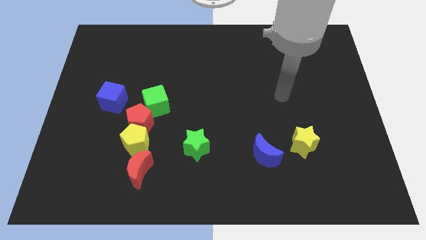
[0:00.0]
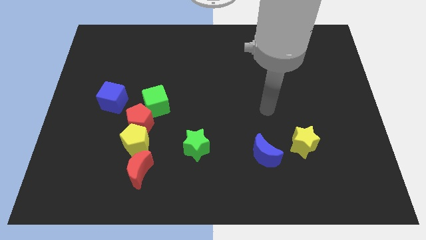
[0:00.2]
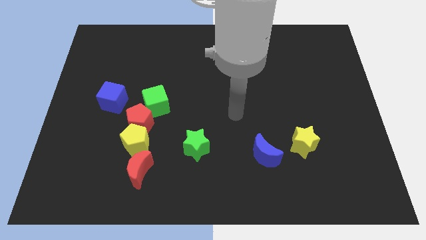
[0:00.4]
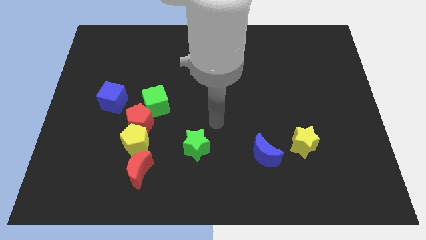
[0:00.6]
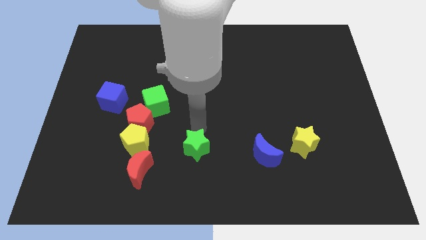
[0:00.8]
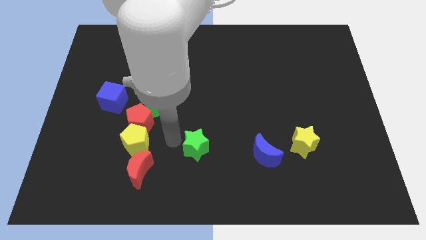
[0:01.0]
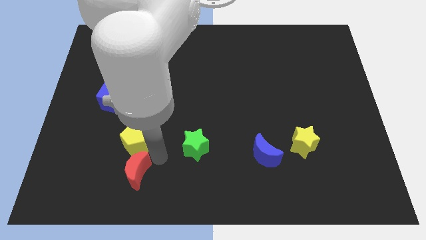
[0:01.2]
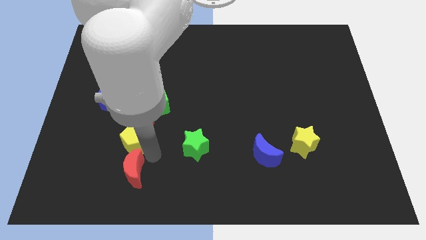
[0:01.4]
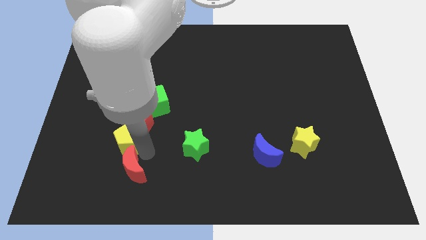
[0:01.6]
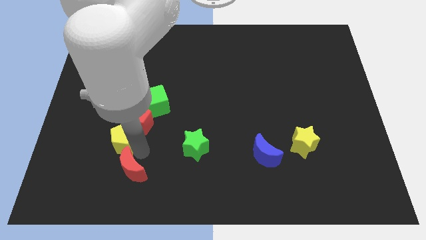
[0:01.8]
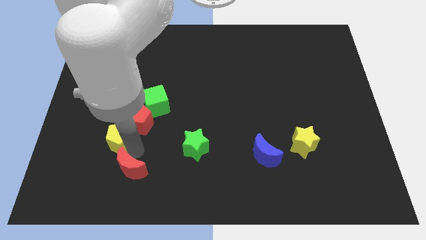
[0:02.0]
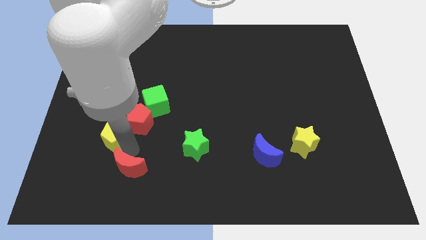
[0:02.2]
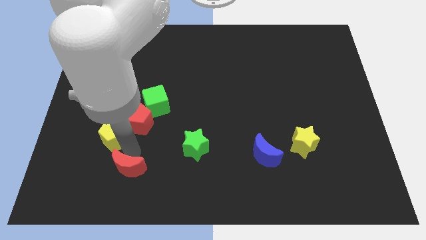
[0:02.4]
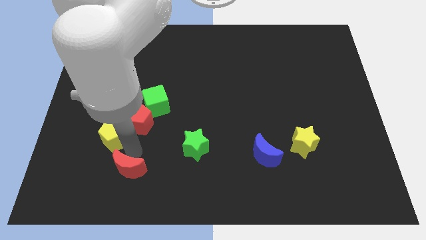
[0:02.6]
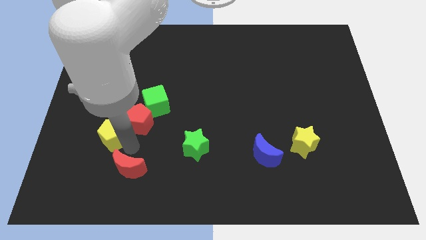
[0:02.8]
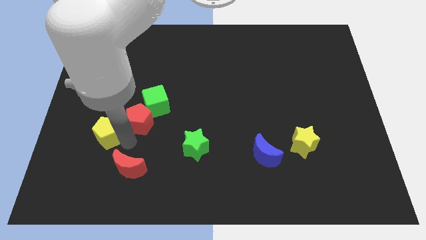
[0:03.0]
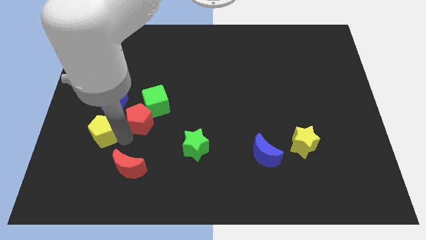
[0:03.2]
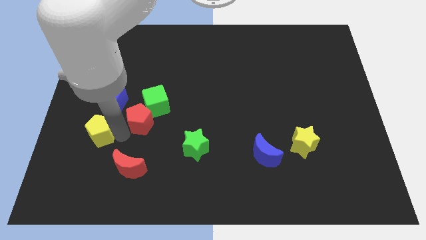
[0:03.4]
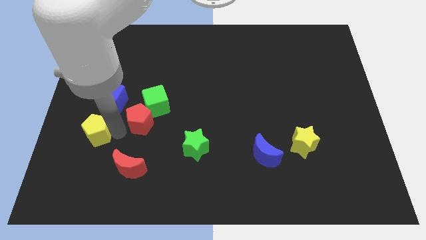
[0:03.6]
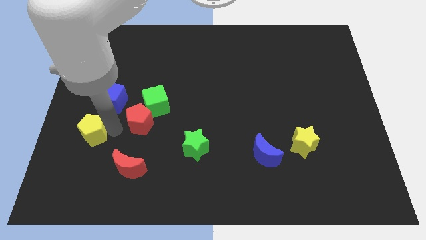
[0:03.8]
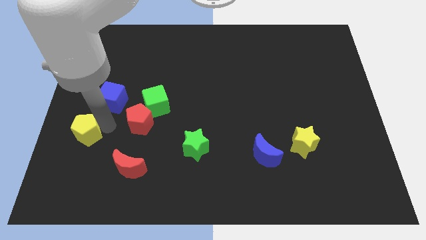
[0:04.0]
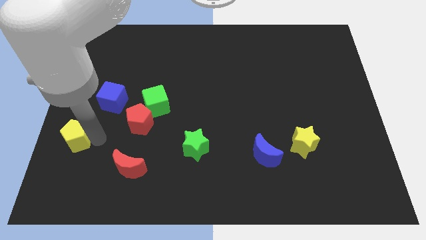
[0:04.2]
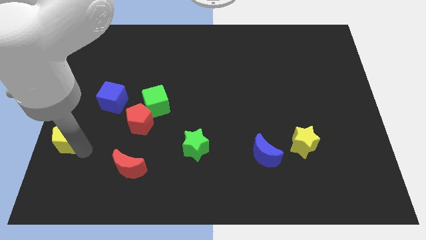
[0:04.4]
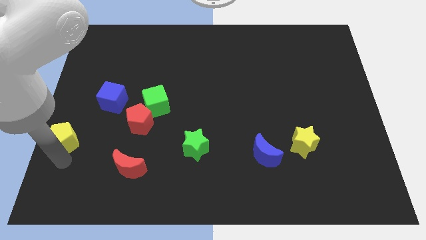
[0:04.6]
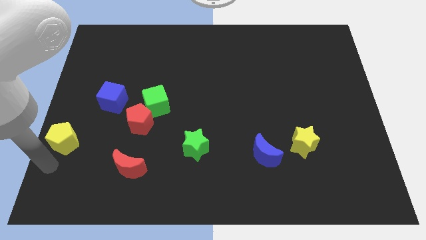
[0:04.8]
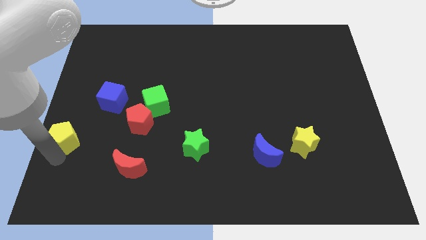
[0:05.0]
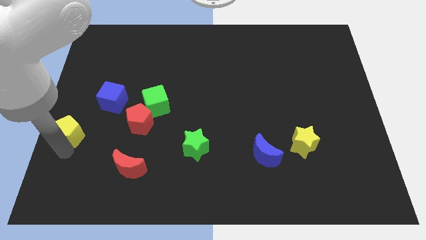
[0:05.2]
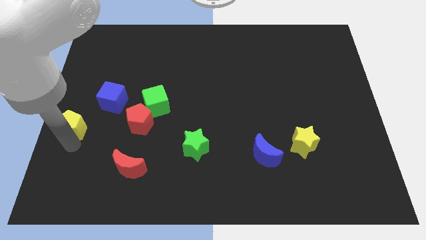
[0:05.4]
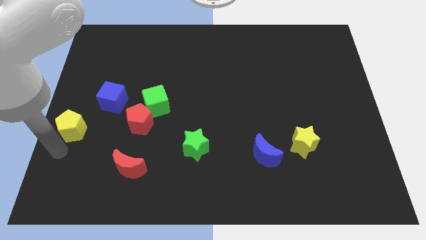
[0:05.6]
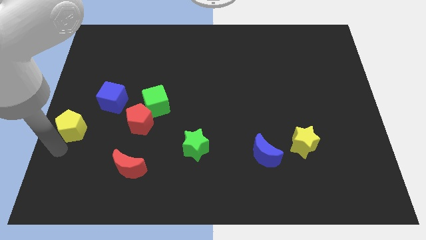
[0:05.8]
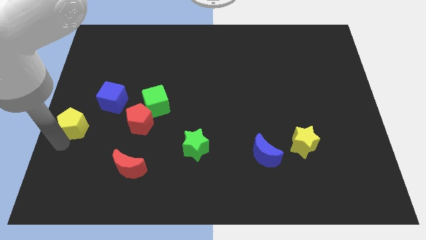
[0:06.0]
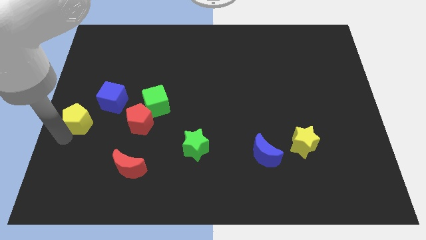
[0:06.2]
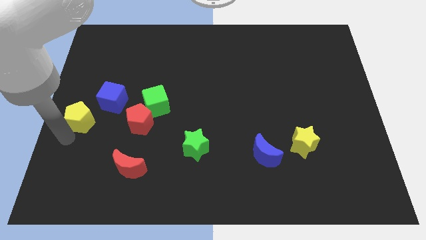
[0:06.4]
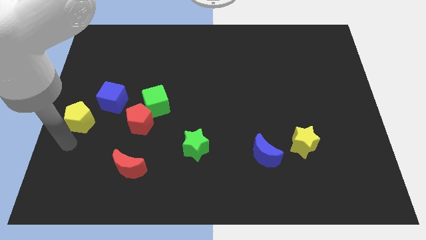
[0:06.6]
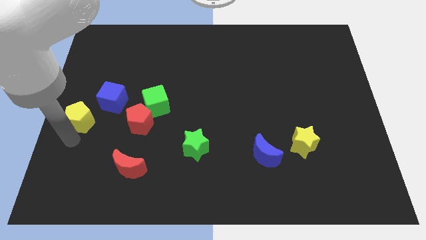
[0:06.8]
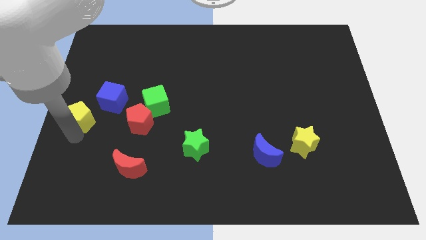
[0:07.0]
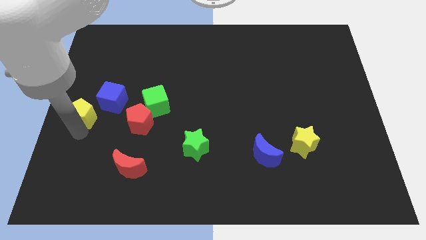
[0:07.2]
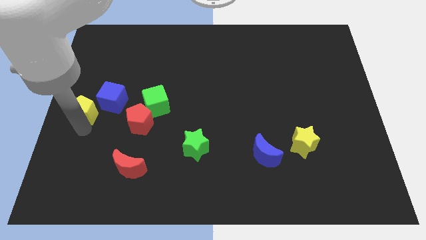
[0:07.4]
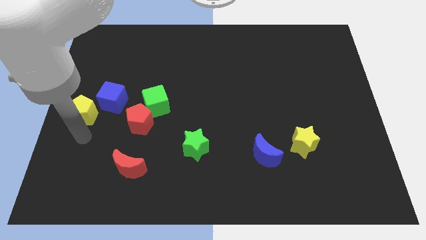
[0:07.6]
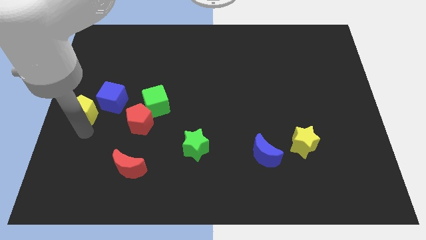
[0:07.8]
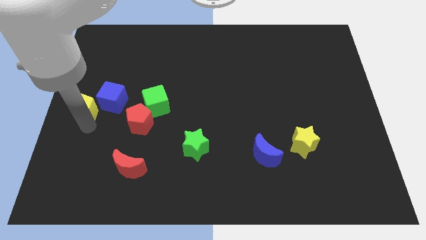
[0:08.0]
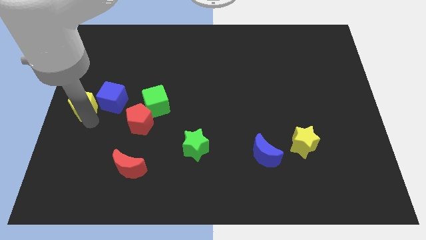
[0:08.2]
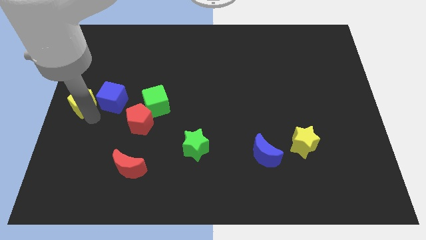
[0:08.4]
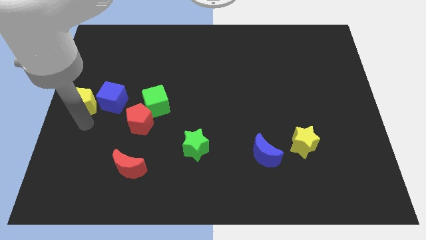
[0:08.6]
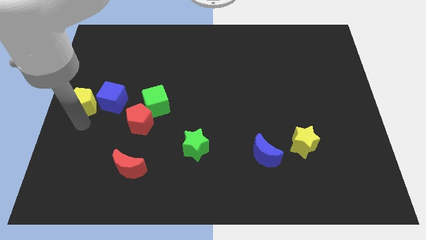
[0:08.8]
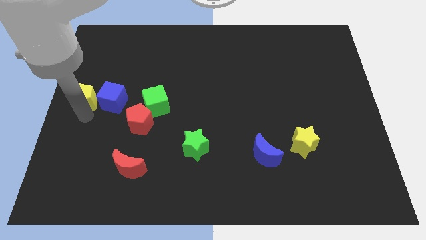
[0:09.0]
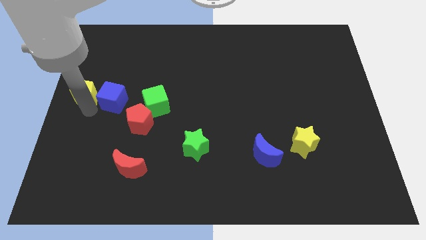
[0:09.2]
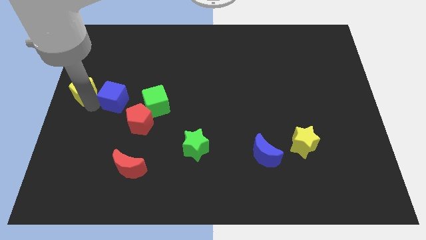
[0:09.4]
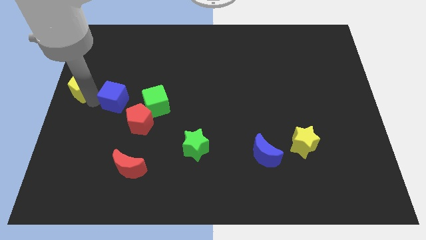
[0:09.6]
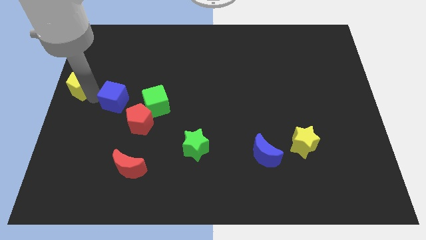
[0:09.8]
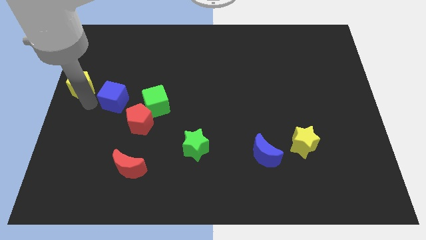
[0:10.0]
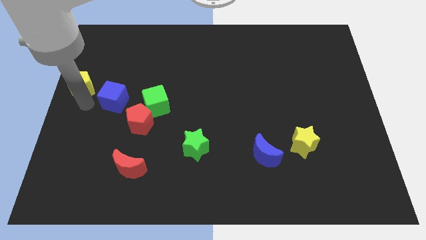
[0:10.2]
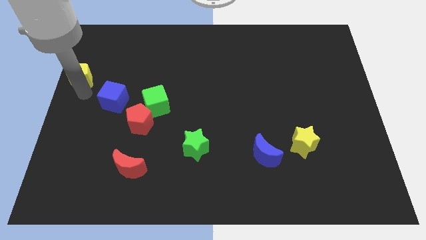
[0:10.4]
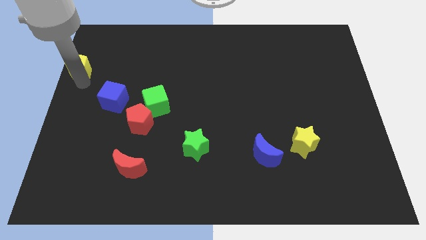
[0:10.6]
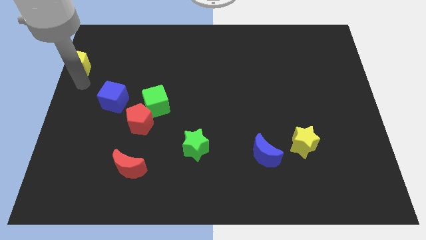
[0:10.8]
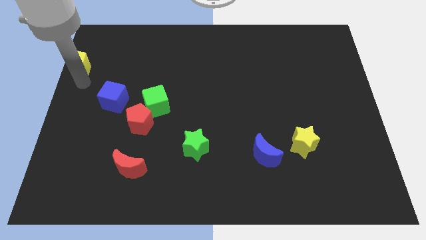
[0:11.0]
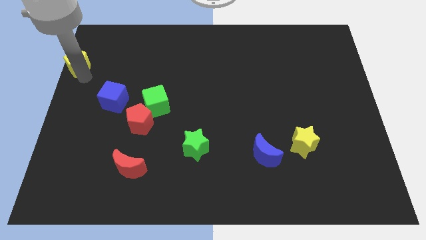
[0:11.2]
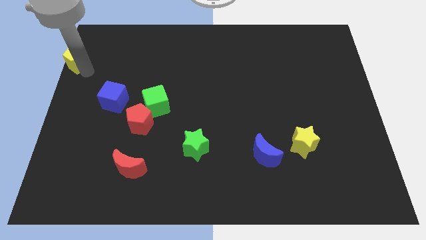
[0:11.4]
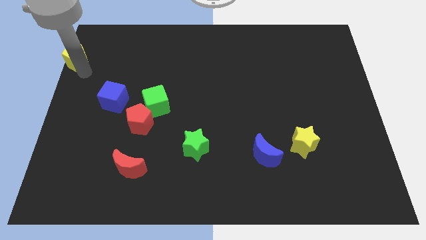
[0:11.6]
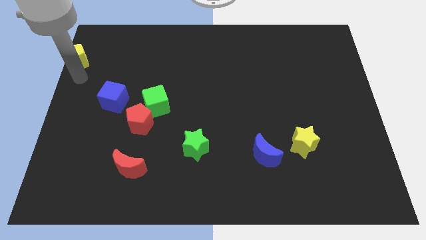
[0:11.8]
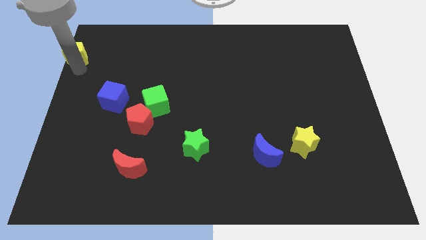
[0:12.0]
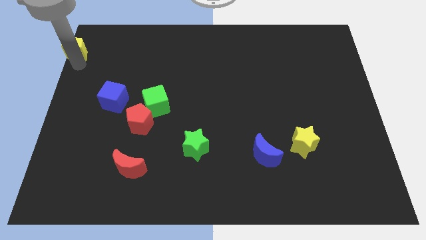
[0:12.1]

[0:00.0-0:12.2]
push the yellow pentagon to the top left
